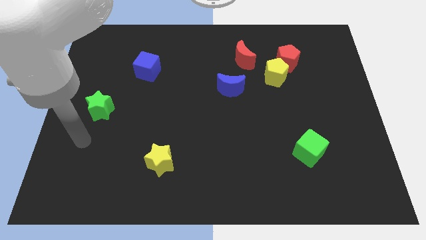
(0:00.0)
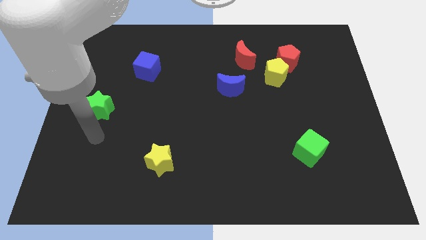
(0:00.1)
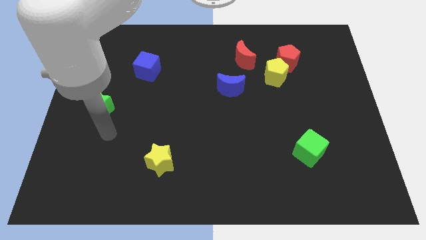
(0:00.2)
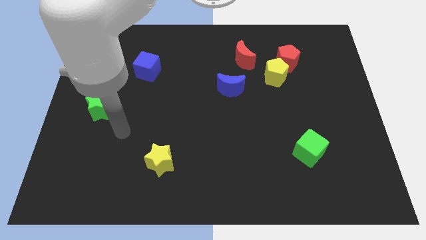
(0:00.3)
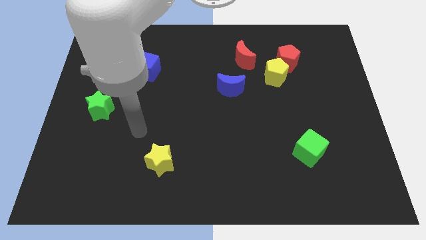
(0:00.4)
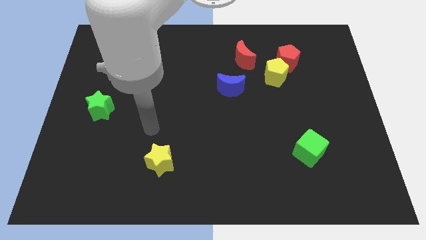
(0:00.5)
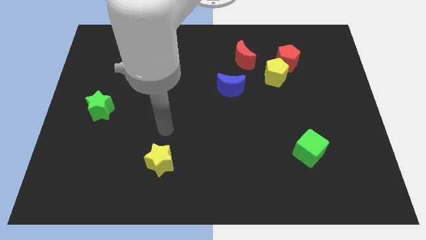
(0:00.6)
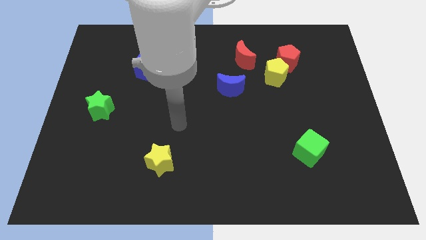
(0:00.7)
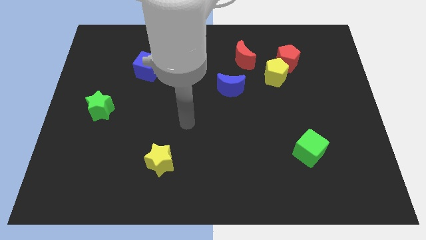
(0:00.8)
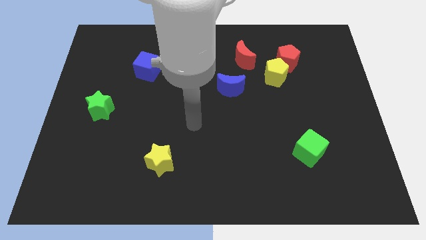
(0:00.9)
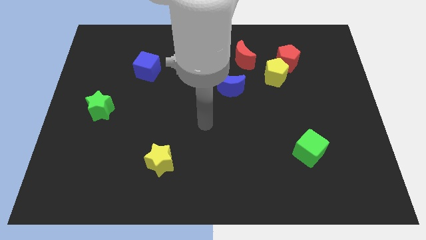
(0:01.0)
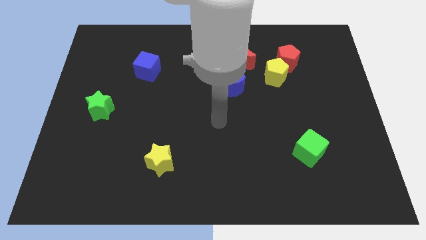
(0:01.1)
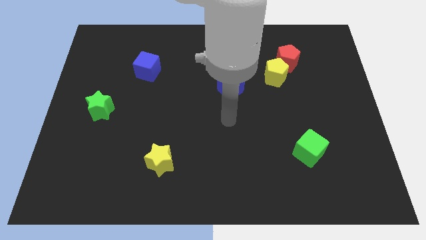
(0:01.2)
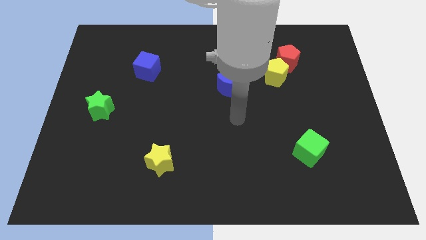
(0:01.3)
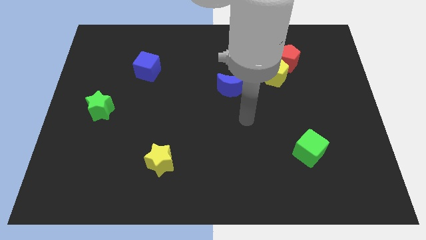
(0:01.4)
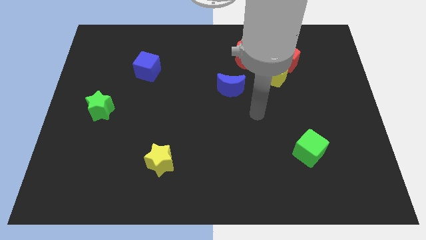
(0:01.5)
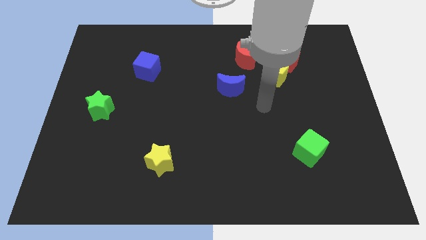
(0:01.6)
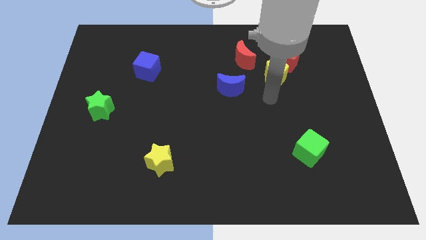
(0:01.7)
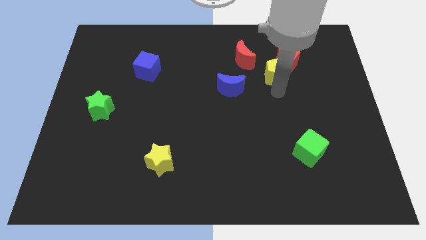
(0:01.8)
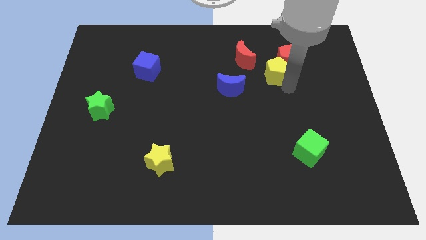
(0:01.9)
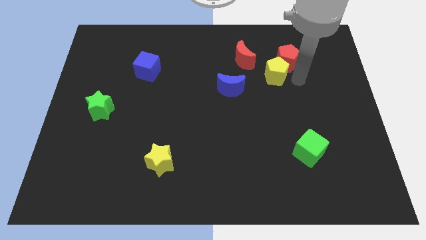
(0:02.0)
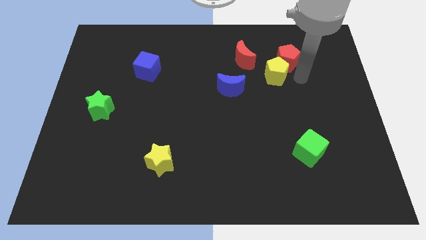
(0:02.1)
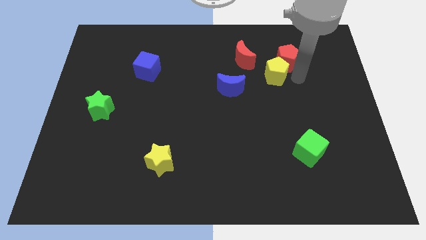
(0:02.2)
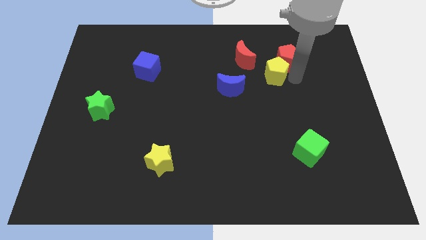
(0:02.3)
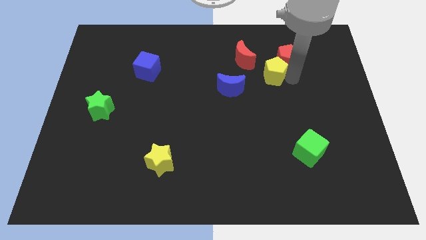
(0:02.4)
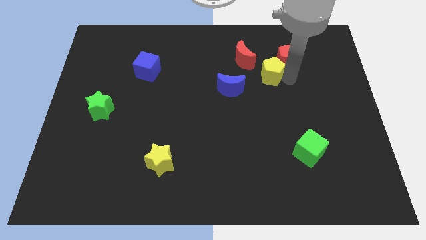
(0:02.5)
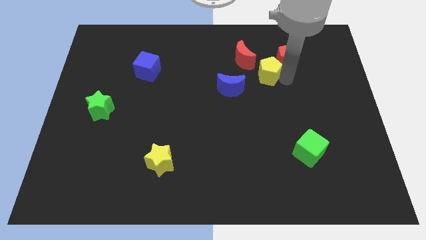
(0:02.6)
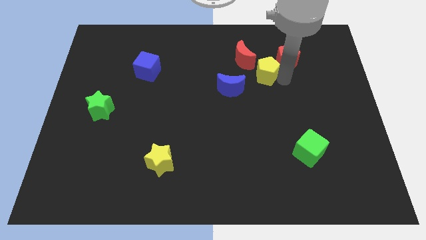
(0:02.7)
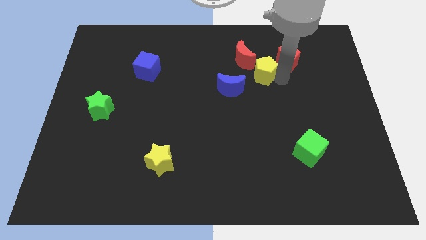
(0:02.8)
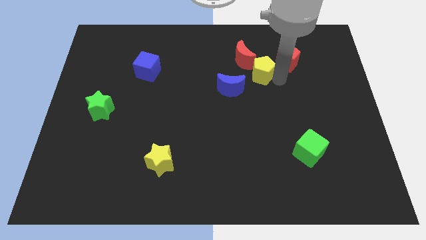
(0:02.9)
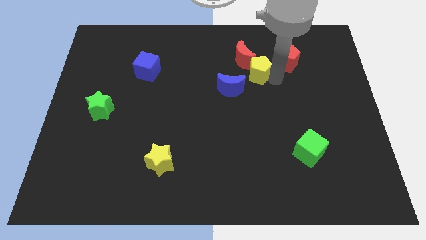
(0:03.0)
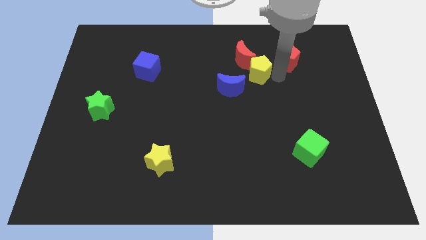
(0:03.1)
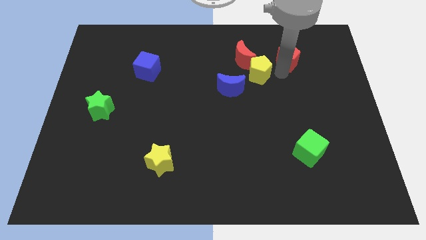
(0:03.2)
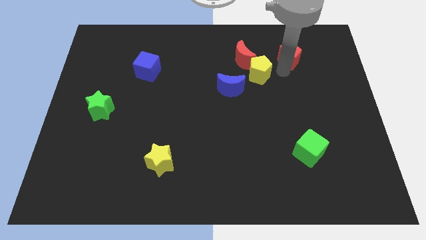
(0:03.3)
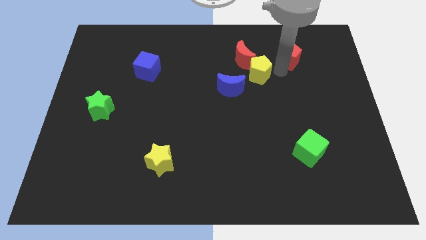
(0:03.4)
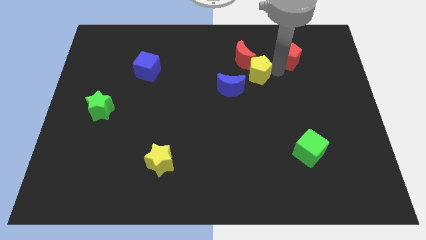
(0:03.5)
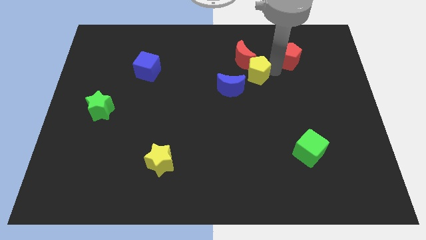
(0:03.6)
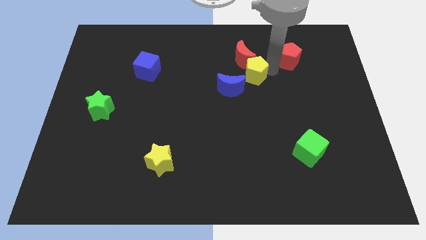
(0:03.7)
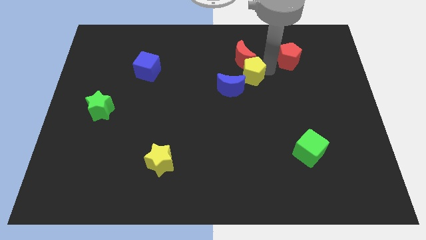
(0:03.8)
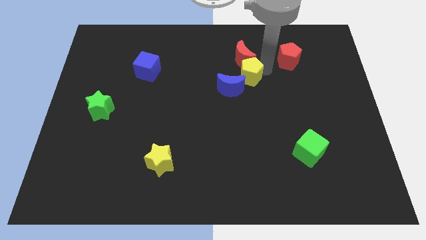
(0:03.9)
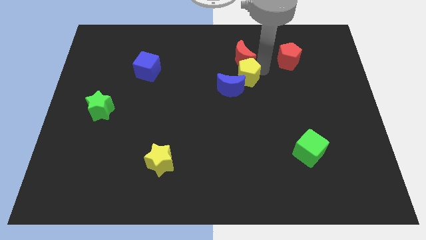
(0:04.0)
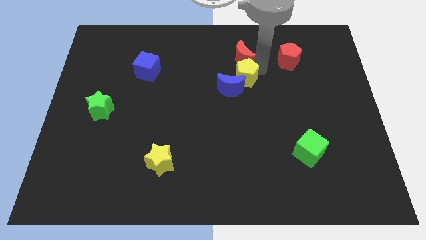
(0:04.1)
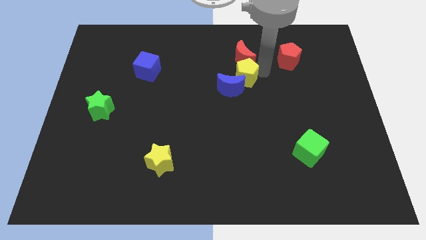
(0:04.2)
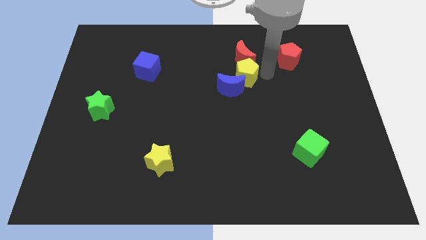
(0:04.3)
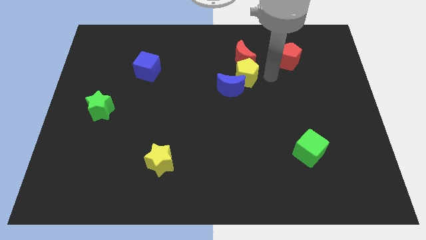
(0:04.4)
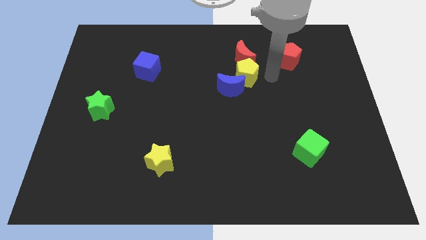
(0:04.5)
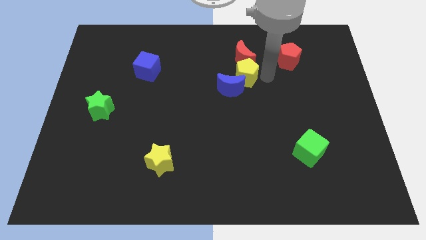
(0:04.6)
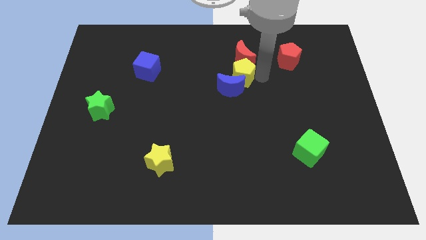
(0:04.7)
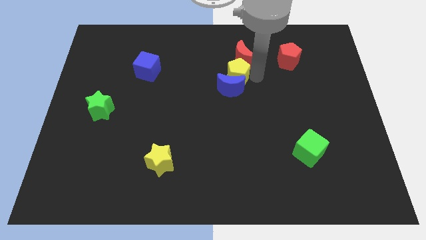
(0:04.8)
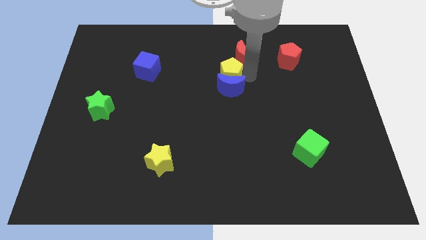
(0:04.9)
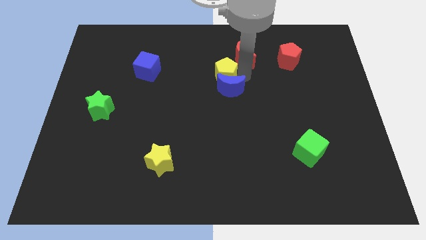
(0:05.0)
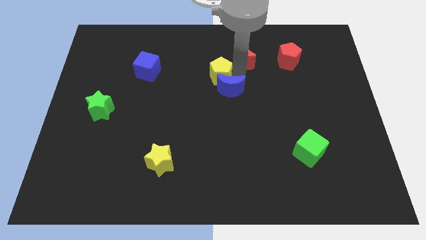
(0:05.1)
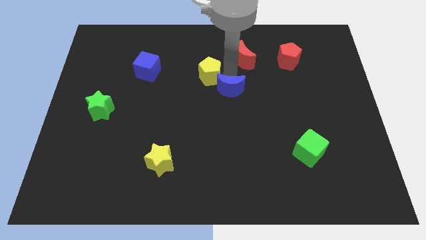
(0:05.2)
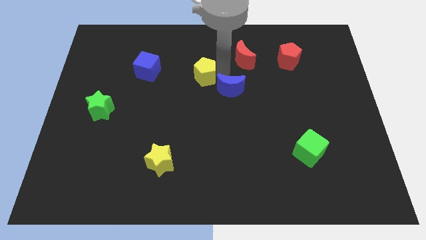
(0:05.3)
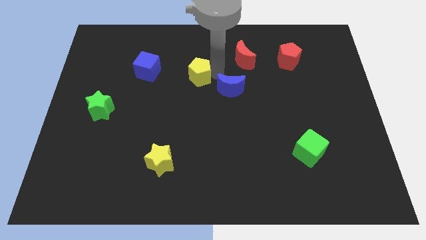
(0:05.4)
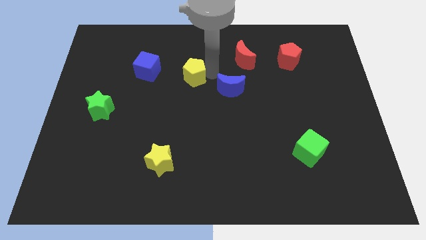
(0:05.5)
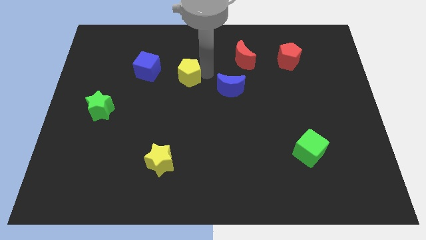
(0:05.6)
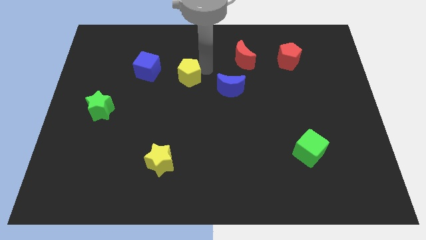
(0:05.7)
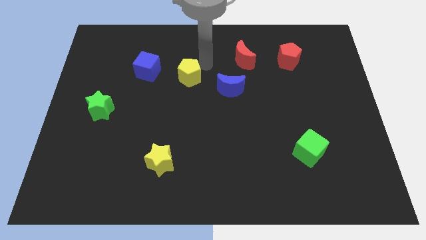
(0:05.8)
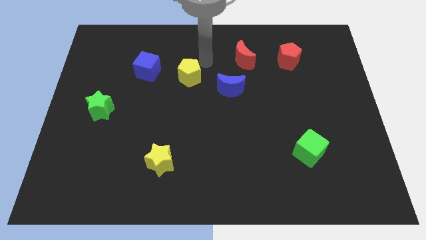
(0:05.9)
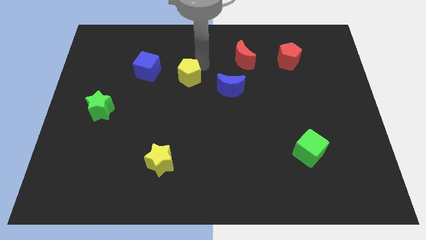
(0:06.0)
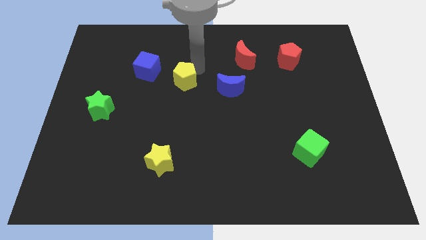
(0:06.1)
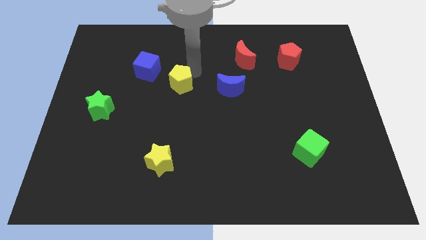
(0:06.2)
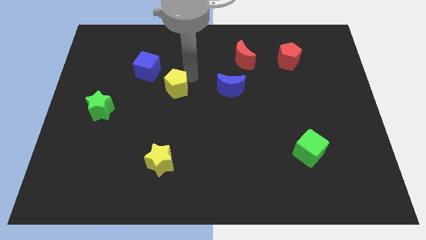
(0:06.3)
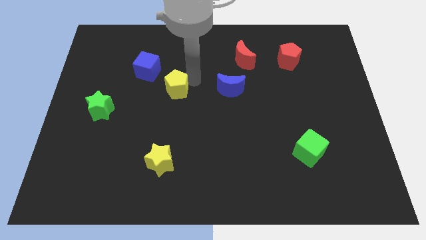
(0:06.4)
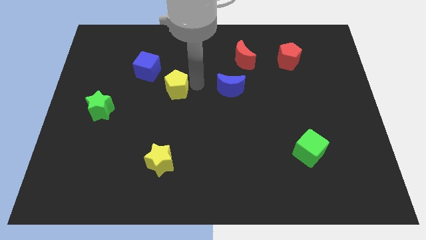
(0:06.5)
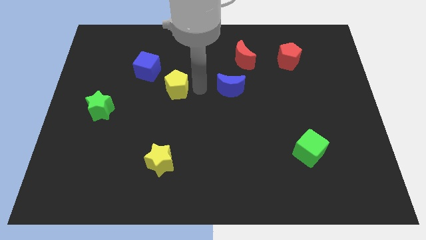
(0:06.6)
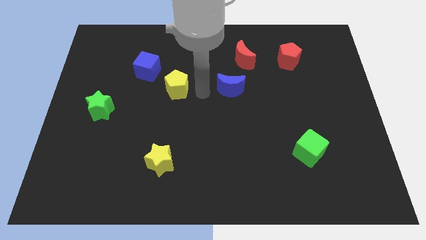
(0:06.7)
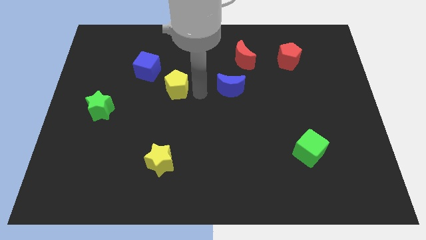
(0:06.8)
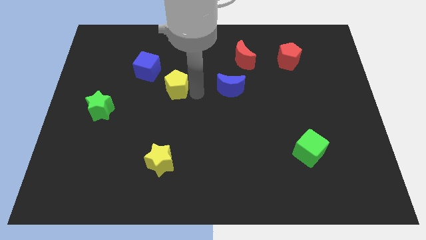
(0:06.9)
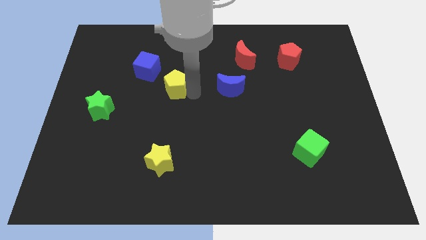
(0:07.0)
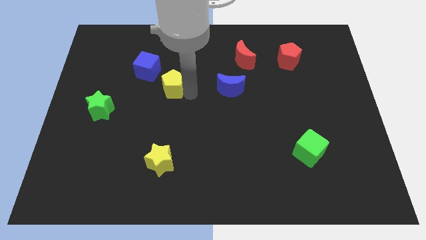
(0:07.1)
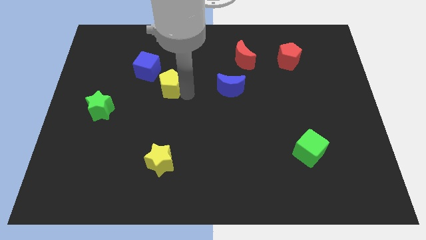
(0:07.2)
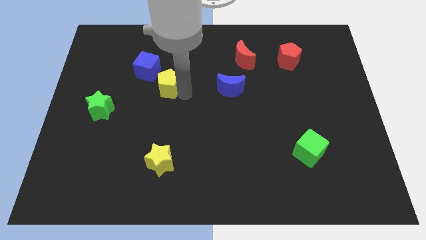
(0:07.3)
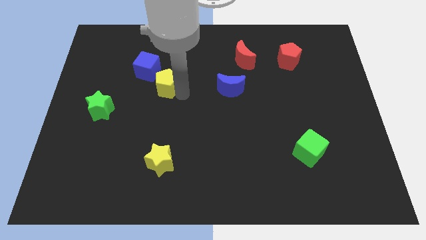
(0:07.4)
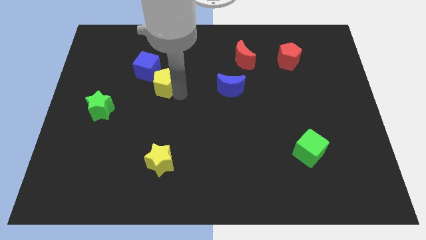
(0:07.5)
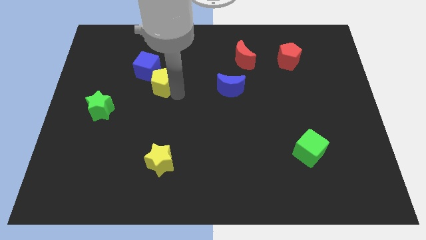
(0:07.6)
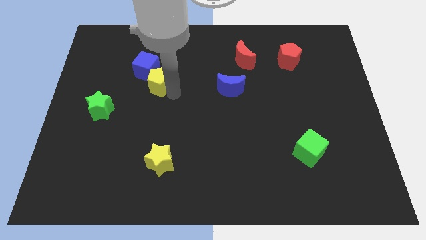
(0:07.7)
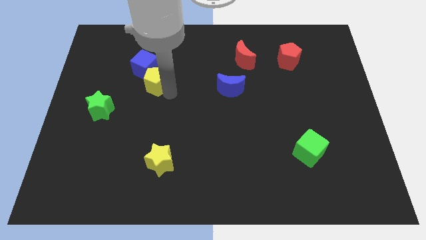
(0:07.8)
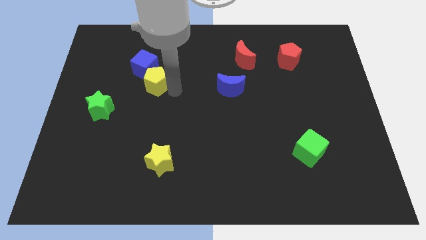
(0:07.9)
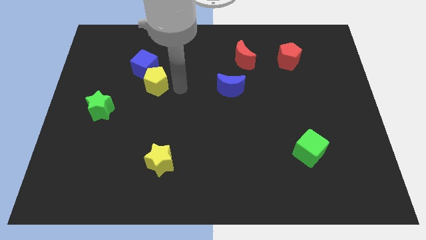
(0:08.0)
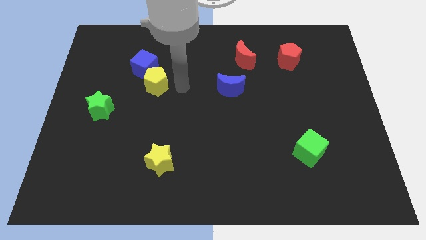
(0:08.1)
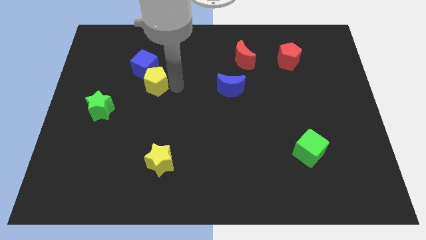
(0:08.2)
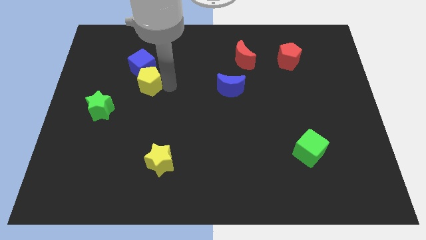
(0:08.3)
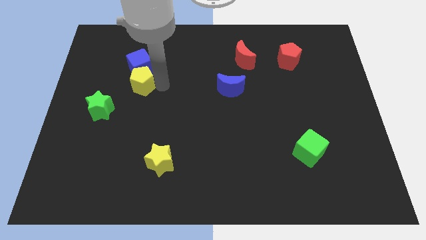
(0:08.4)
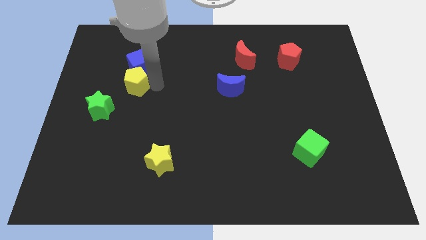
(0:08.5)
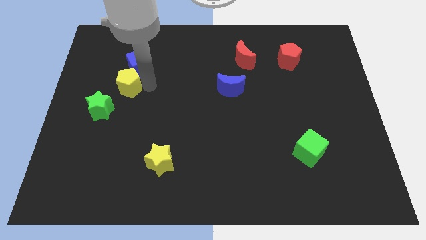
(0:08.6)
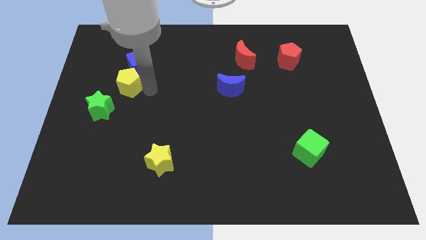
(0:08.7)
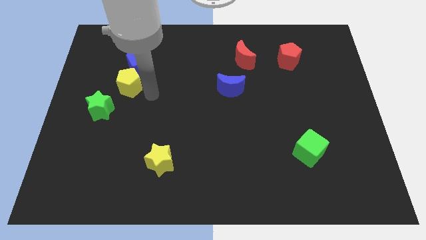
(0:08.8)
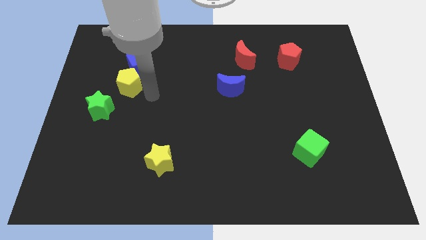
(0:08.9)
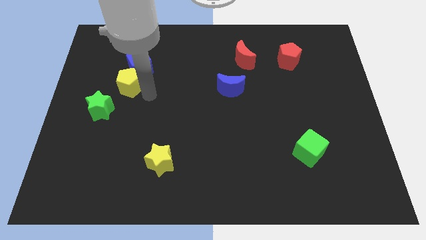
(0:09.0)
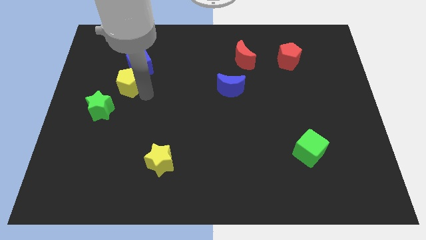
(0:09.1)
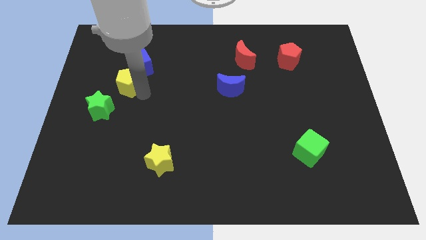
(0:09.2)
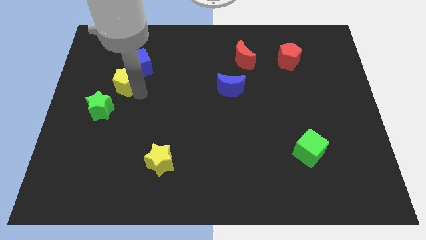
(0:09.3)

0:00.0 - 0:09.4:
push the yellow pentagon to the top side of the green star
